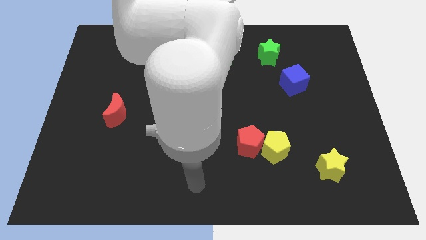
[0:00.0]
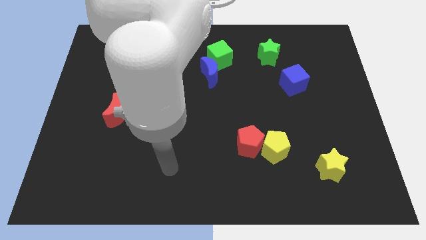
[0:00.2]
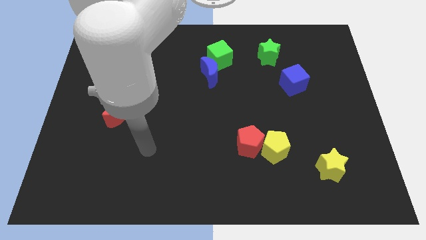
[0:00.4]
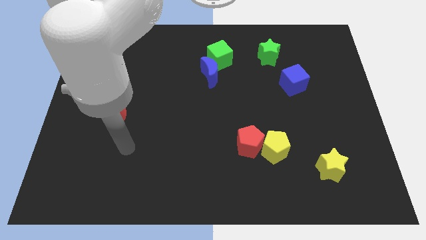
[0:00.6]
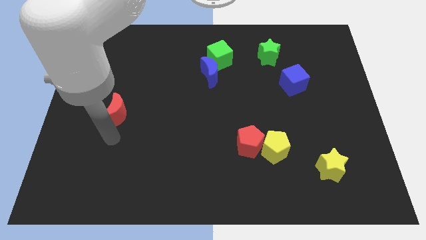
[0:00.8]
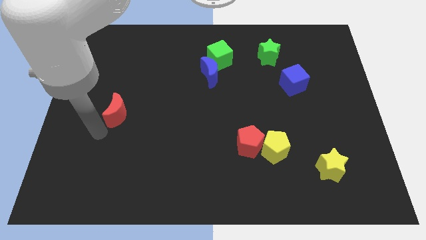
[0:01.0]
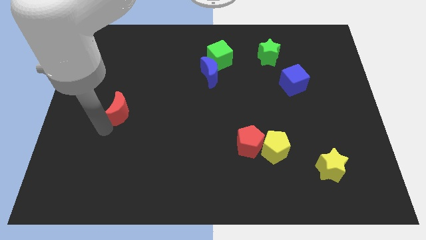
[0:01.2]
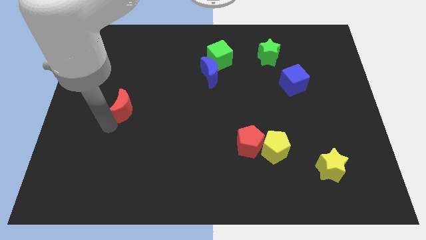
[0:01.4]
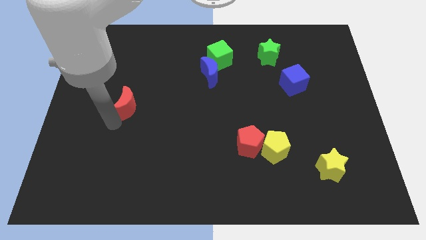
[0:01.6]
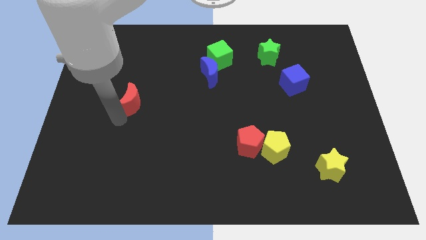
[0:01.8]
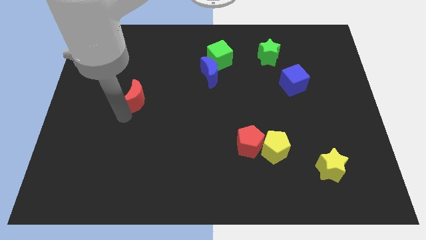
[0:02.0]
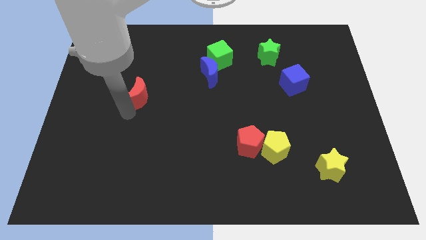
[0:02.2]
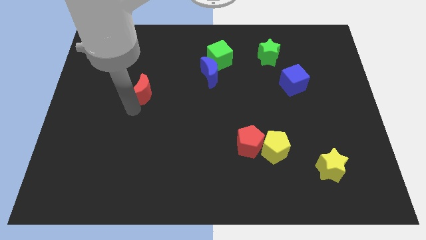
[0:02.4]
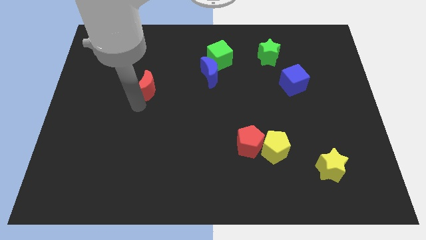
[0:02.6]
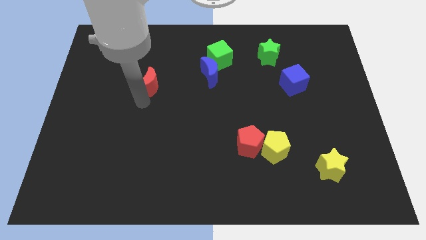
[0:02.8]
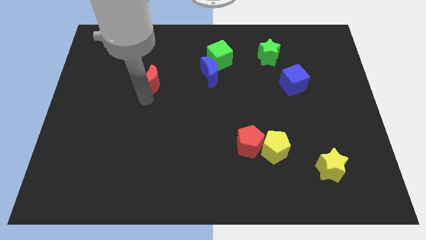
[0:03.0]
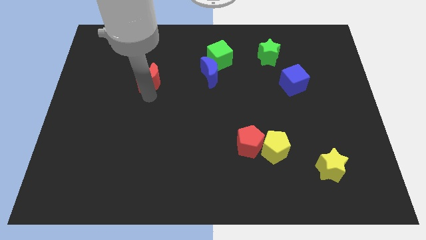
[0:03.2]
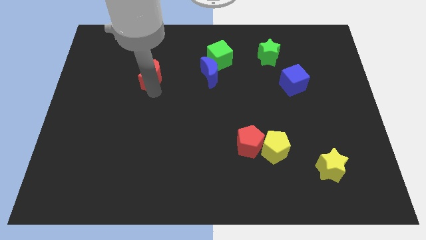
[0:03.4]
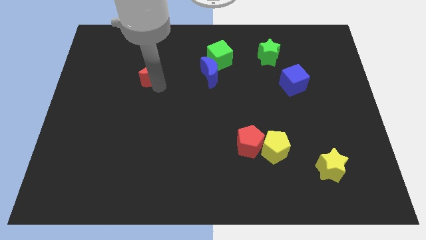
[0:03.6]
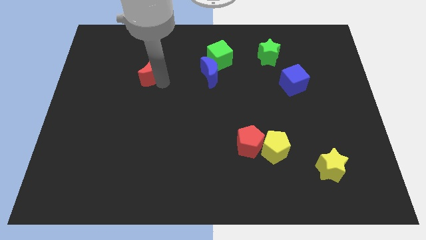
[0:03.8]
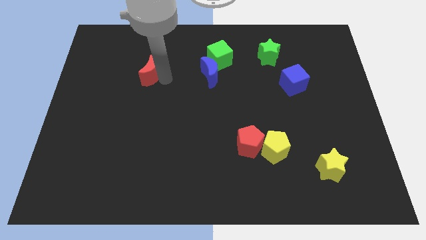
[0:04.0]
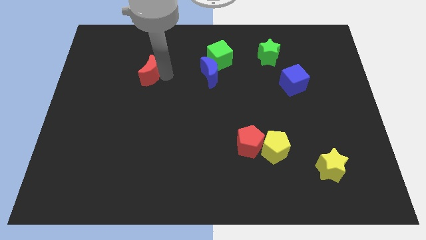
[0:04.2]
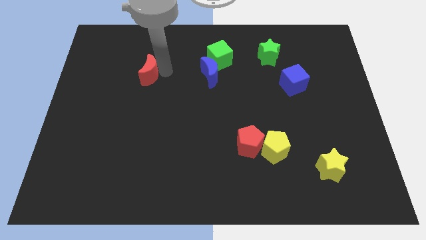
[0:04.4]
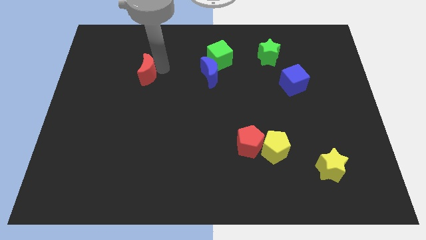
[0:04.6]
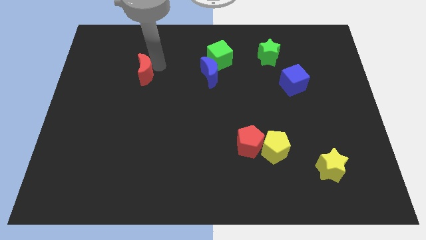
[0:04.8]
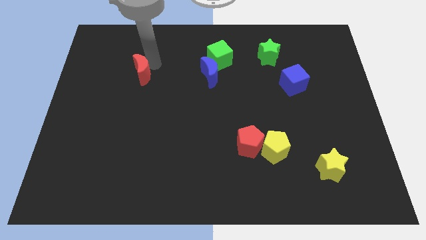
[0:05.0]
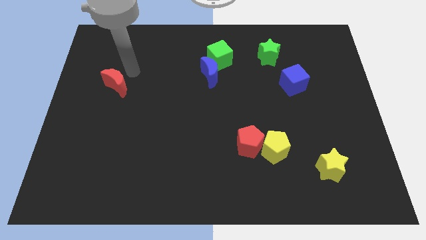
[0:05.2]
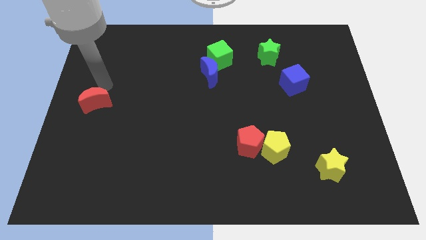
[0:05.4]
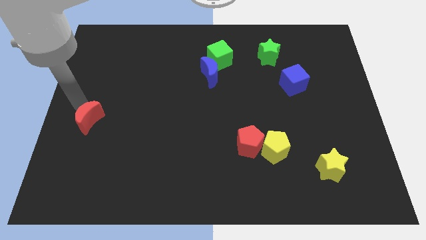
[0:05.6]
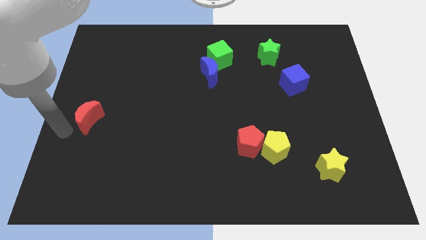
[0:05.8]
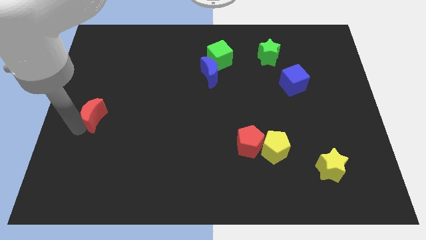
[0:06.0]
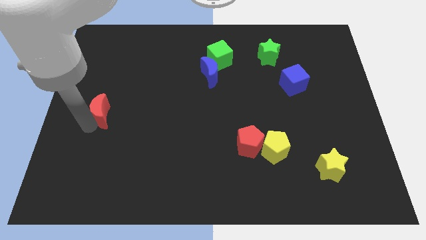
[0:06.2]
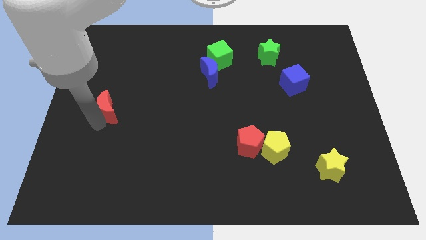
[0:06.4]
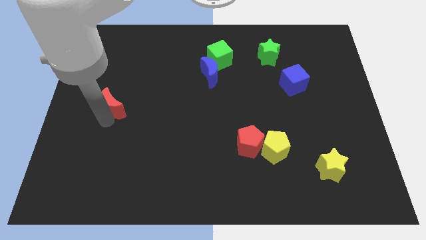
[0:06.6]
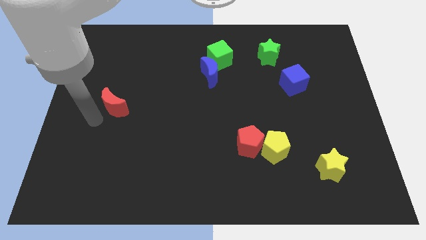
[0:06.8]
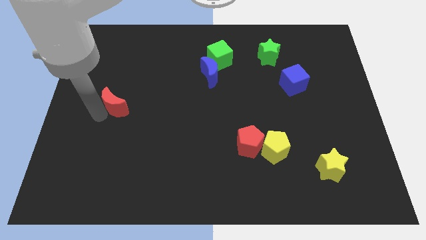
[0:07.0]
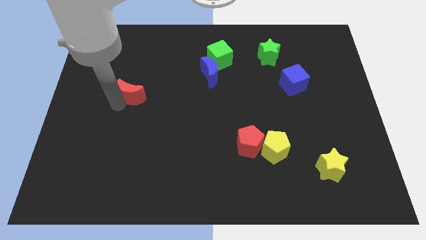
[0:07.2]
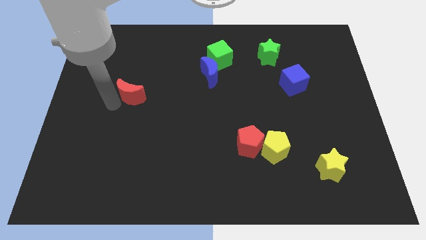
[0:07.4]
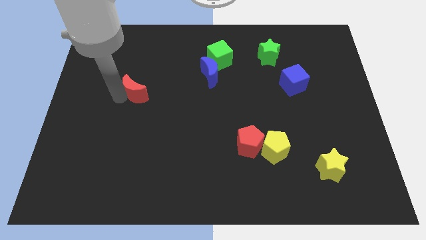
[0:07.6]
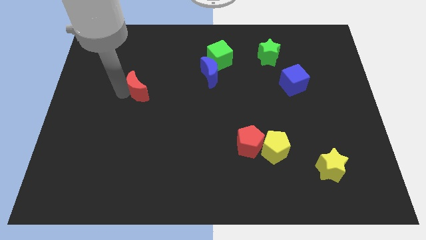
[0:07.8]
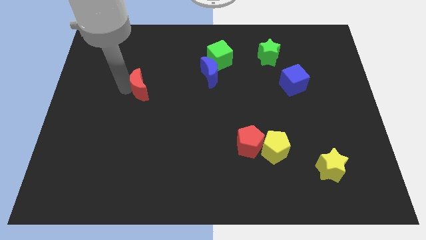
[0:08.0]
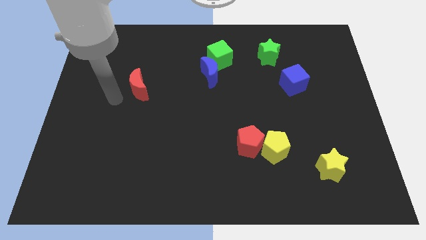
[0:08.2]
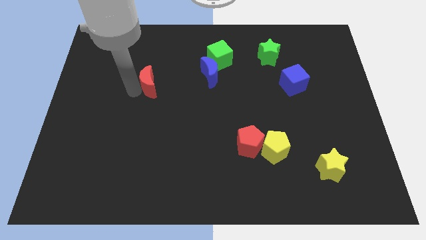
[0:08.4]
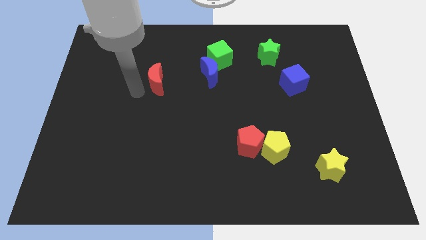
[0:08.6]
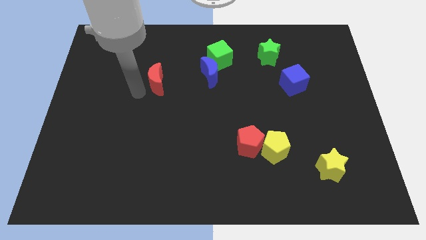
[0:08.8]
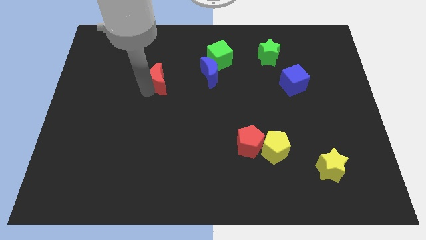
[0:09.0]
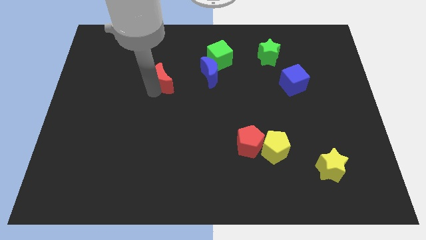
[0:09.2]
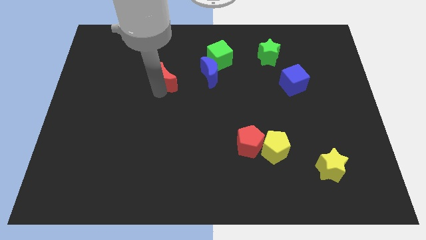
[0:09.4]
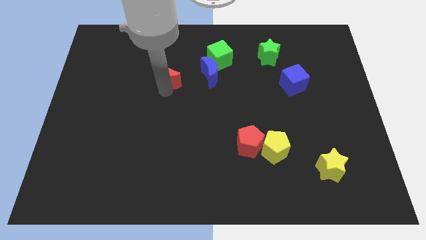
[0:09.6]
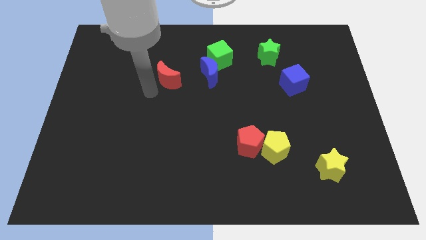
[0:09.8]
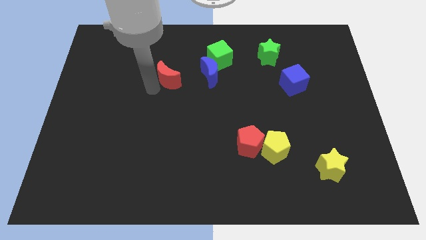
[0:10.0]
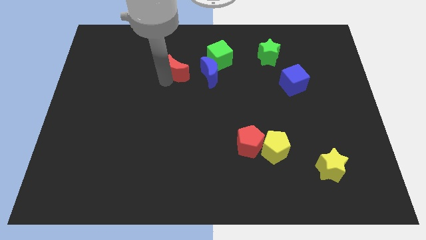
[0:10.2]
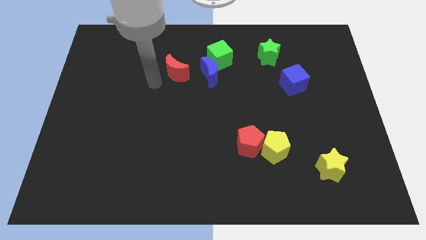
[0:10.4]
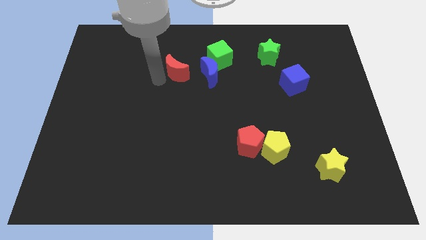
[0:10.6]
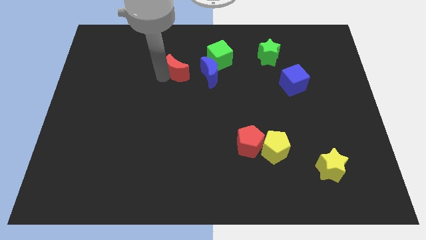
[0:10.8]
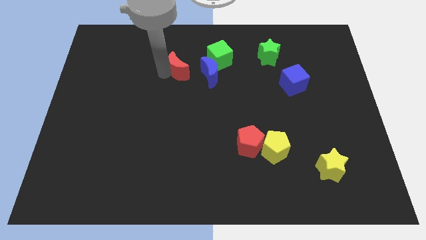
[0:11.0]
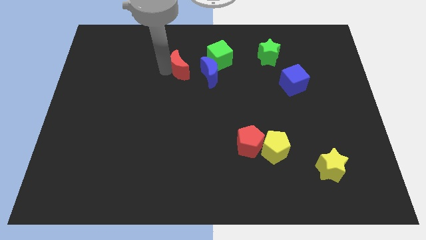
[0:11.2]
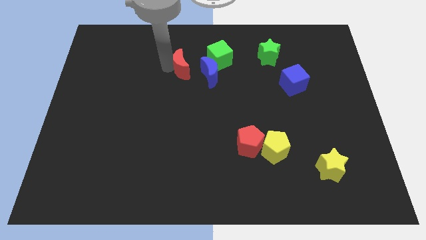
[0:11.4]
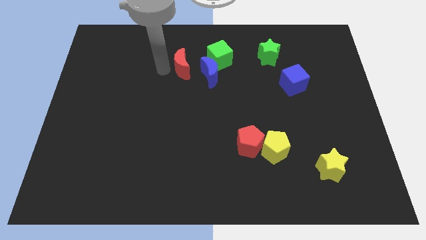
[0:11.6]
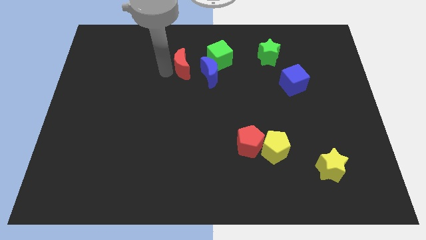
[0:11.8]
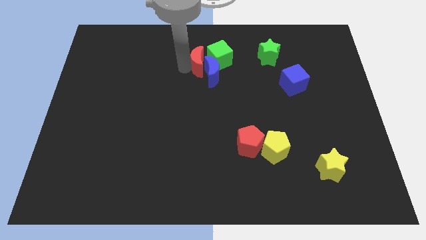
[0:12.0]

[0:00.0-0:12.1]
put the red moon towards the green cube
